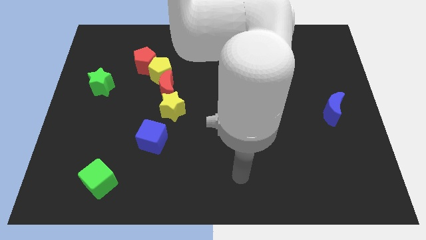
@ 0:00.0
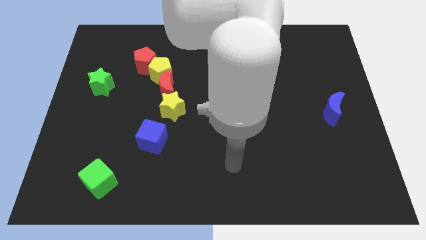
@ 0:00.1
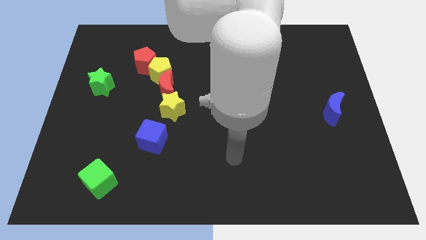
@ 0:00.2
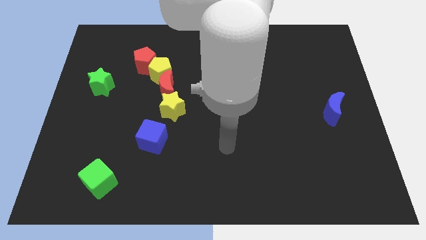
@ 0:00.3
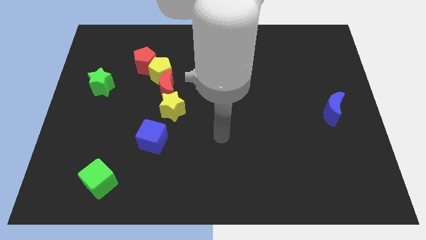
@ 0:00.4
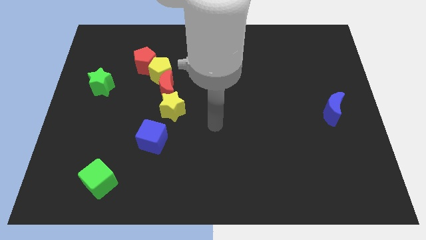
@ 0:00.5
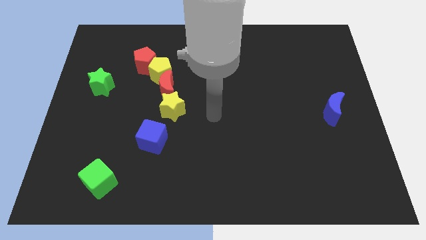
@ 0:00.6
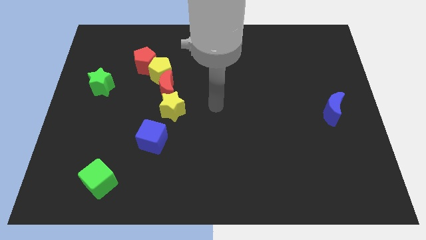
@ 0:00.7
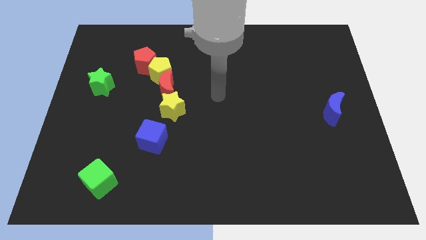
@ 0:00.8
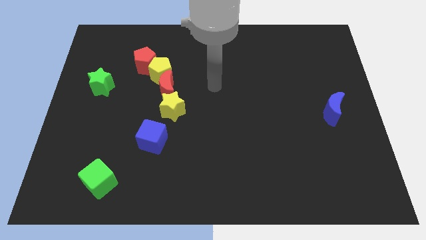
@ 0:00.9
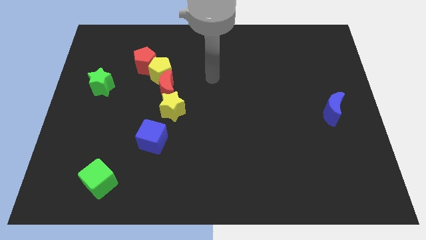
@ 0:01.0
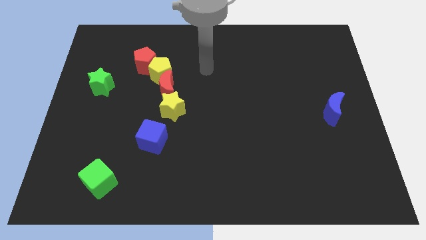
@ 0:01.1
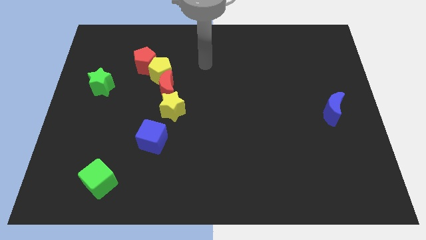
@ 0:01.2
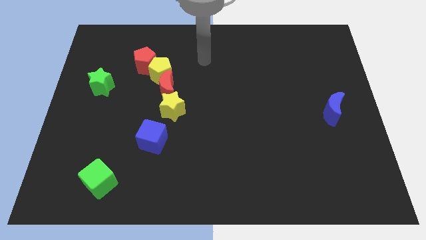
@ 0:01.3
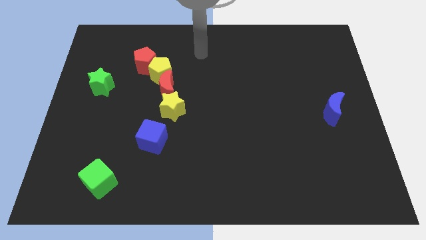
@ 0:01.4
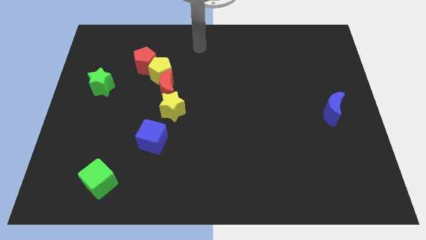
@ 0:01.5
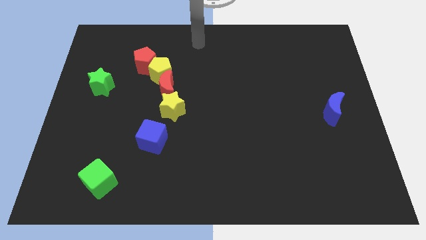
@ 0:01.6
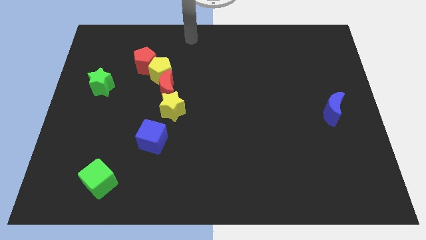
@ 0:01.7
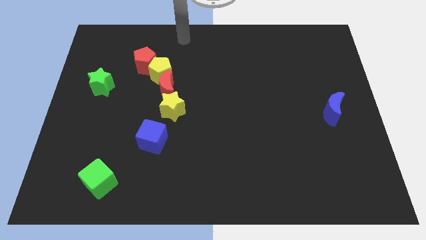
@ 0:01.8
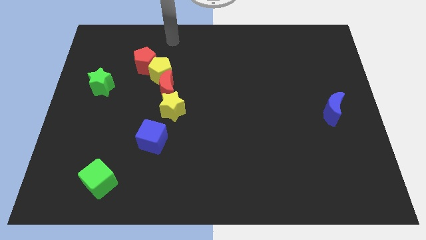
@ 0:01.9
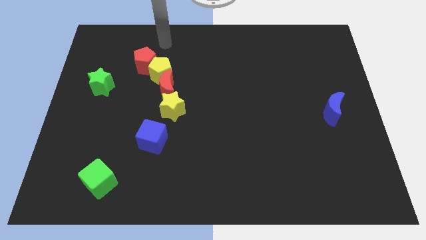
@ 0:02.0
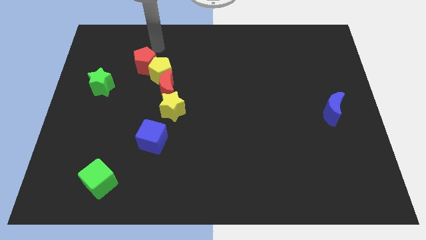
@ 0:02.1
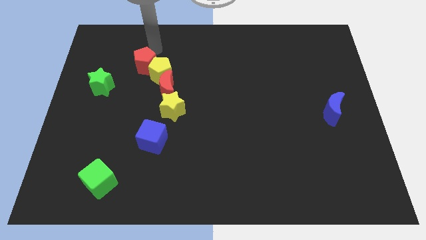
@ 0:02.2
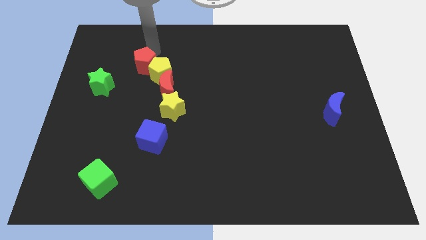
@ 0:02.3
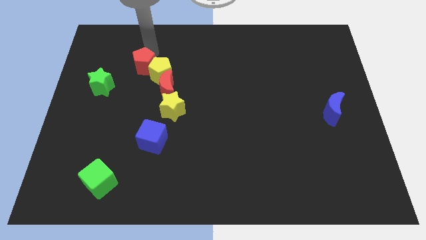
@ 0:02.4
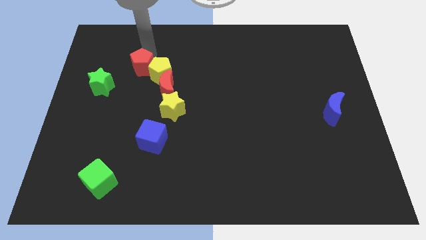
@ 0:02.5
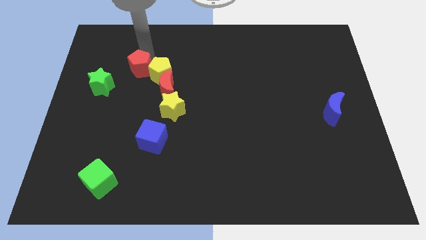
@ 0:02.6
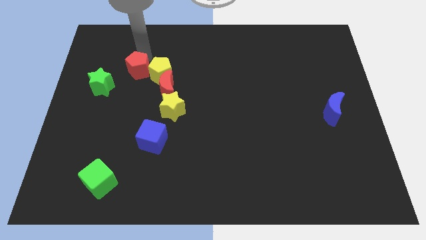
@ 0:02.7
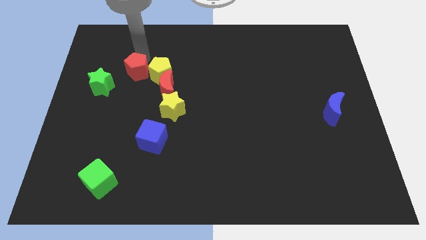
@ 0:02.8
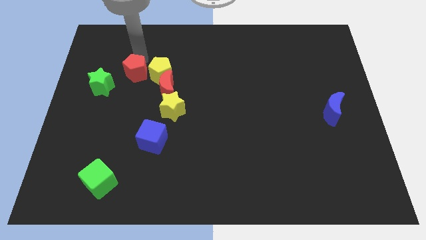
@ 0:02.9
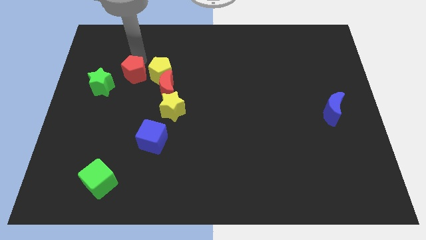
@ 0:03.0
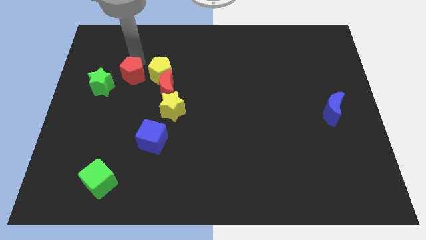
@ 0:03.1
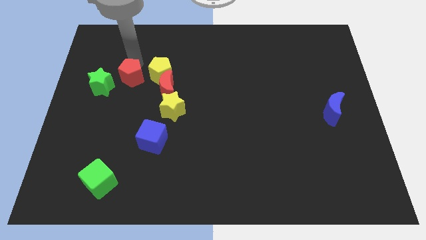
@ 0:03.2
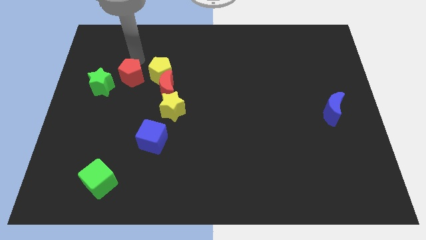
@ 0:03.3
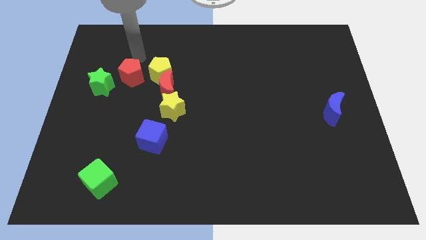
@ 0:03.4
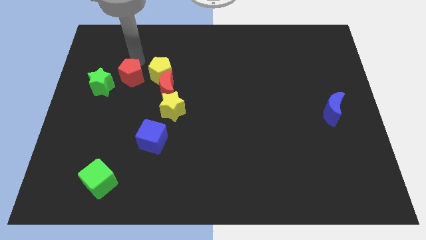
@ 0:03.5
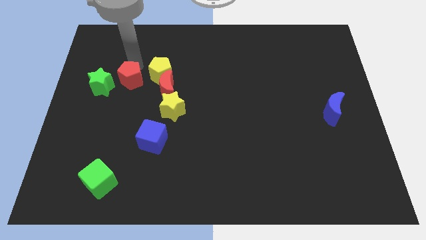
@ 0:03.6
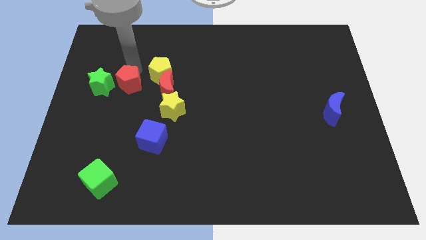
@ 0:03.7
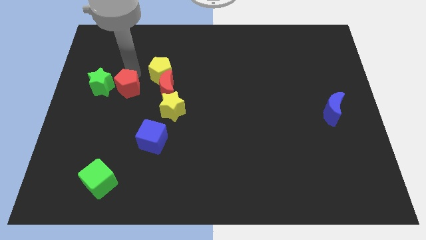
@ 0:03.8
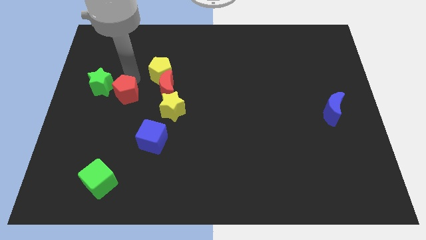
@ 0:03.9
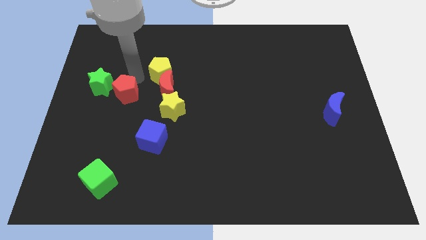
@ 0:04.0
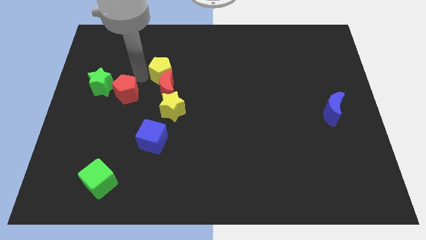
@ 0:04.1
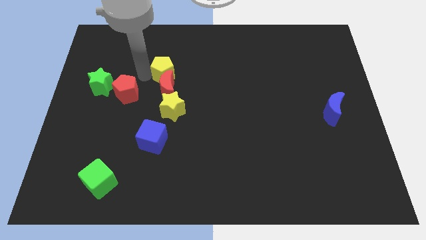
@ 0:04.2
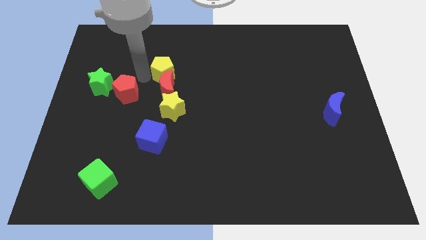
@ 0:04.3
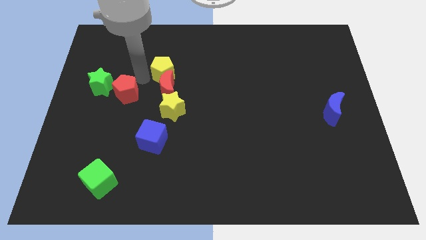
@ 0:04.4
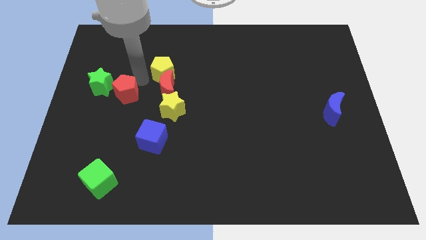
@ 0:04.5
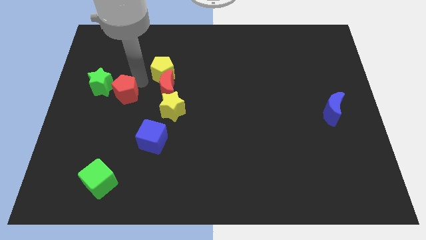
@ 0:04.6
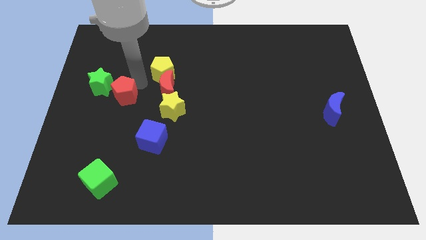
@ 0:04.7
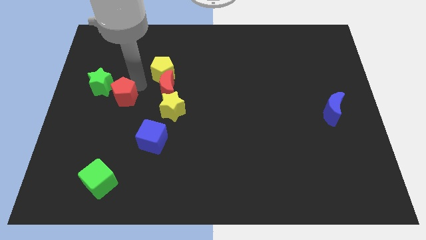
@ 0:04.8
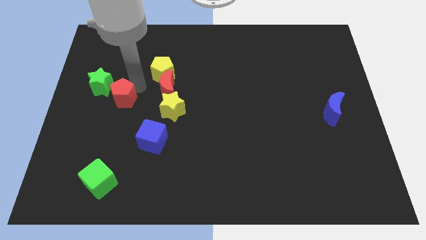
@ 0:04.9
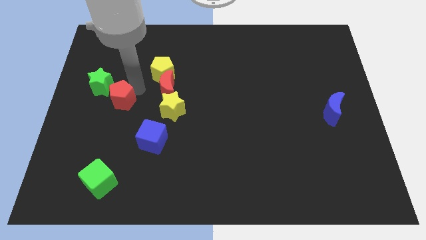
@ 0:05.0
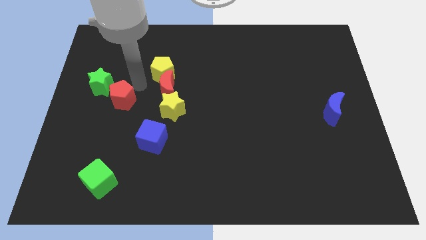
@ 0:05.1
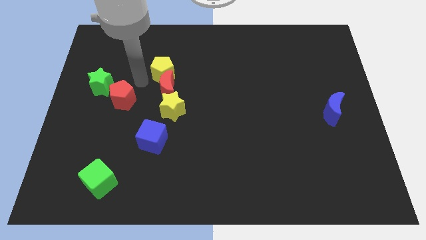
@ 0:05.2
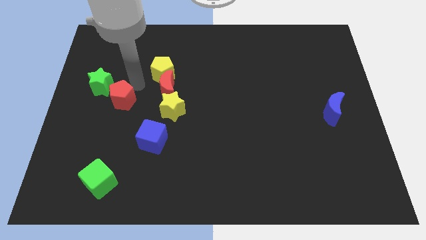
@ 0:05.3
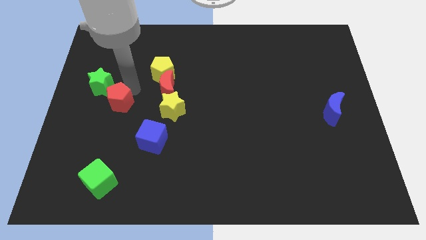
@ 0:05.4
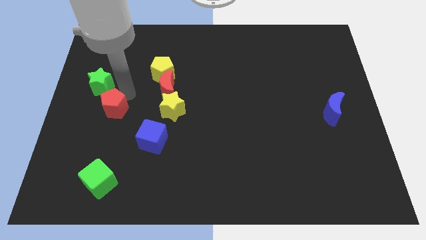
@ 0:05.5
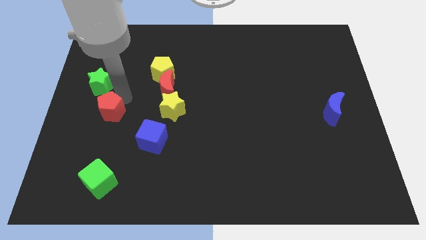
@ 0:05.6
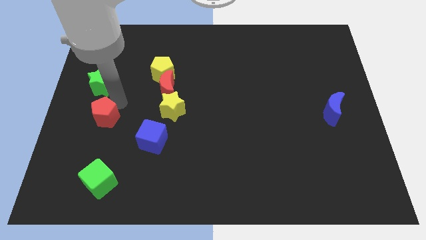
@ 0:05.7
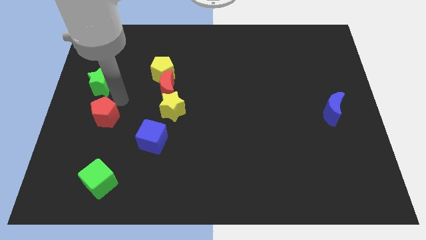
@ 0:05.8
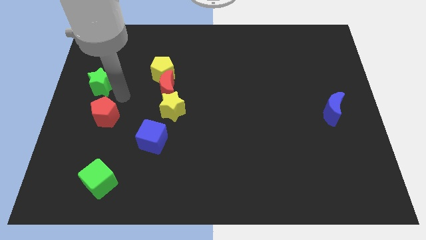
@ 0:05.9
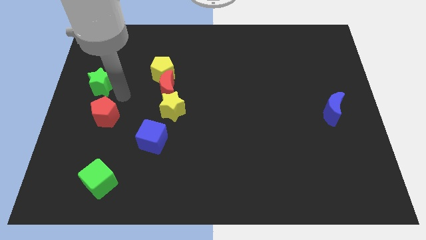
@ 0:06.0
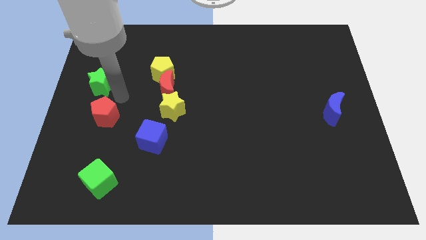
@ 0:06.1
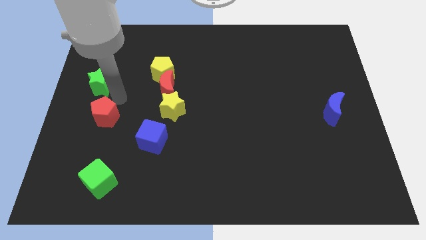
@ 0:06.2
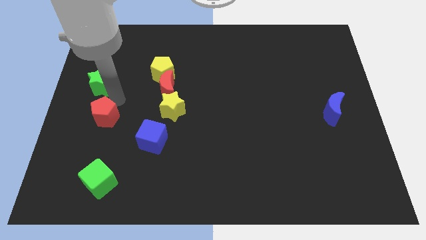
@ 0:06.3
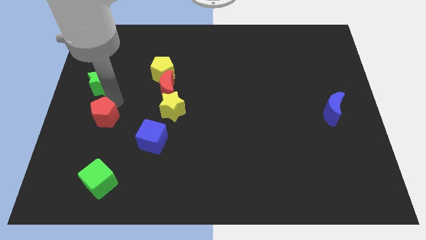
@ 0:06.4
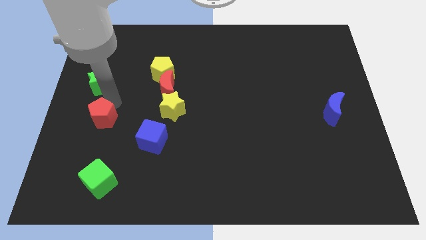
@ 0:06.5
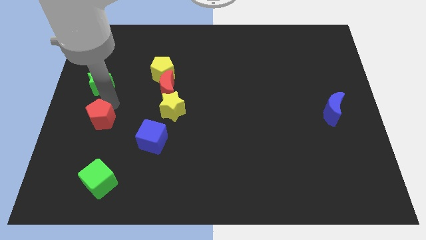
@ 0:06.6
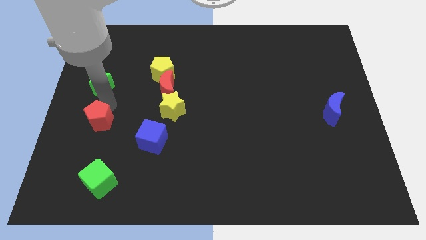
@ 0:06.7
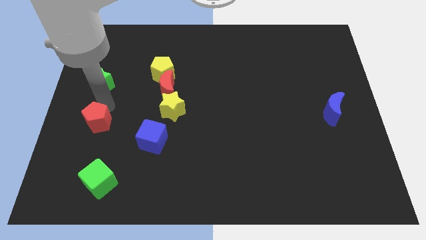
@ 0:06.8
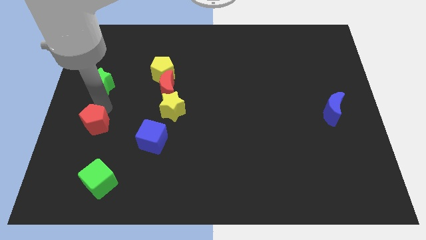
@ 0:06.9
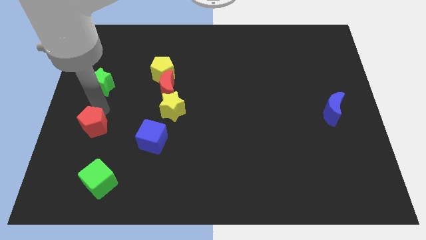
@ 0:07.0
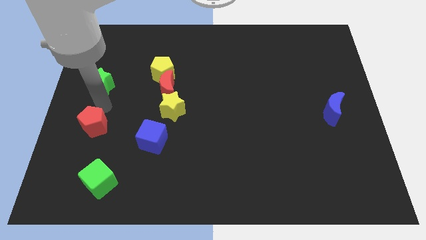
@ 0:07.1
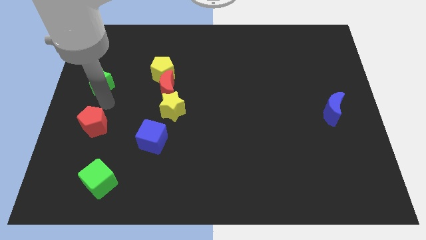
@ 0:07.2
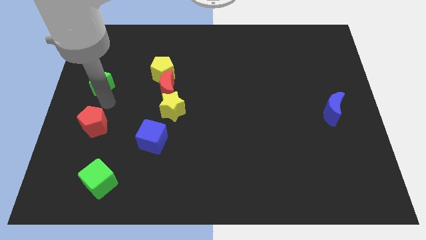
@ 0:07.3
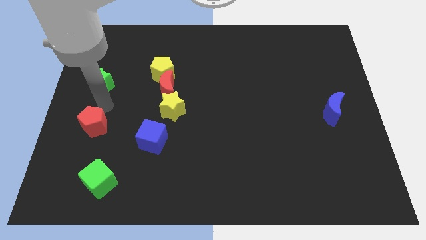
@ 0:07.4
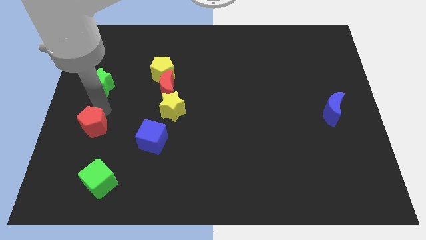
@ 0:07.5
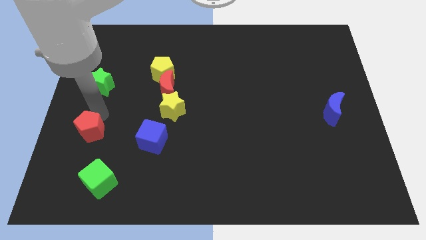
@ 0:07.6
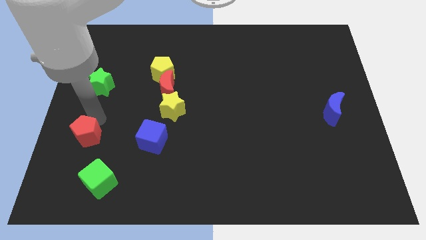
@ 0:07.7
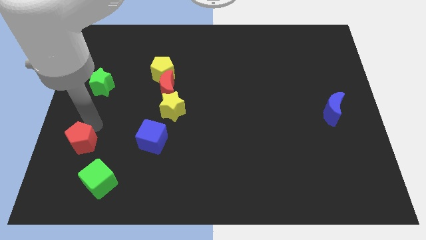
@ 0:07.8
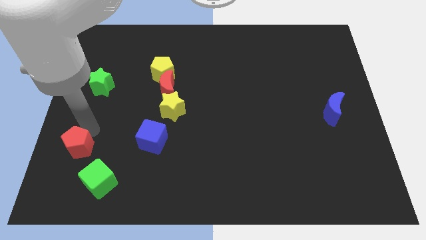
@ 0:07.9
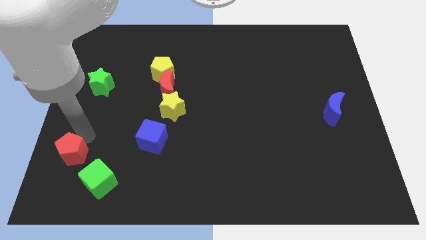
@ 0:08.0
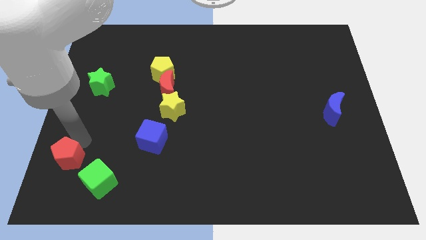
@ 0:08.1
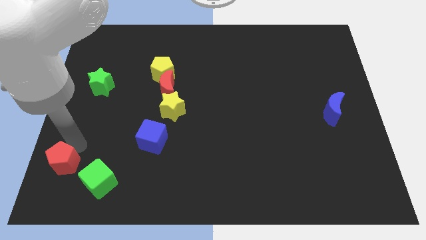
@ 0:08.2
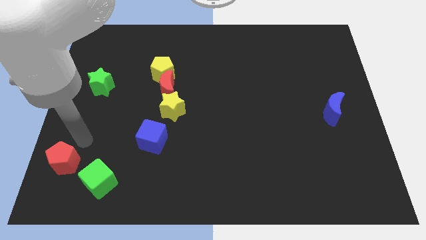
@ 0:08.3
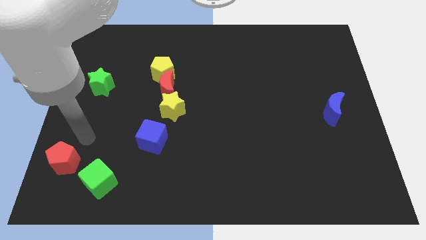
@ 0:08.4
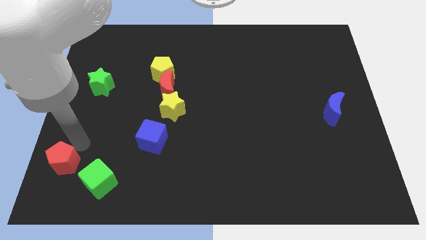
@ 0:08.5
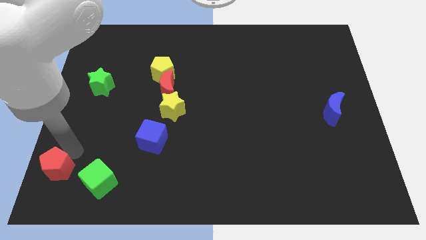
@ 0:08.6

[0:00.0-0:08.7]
slide the red pentagon to the lower left corner
